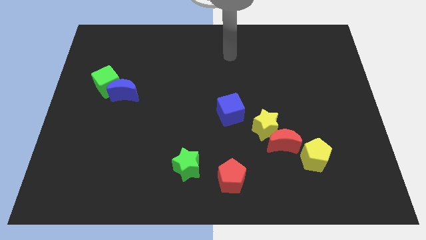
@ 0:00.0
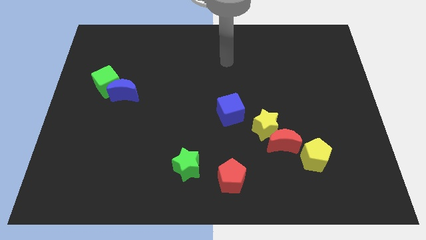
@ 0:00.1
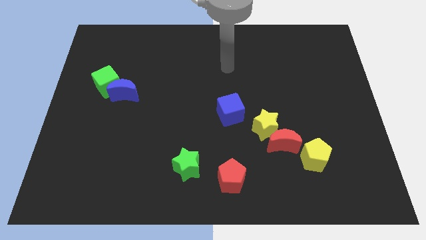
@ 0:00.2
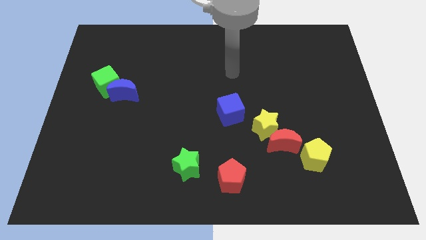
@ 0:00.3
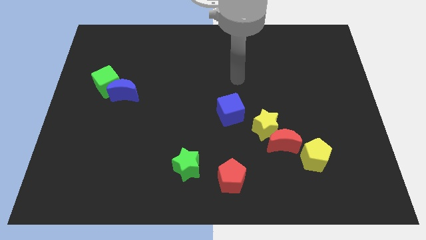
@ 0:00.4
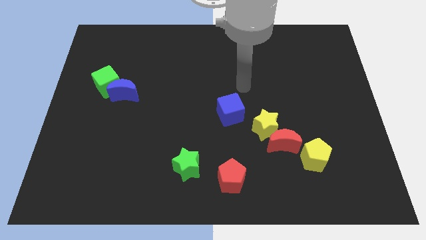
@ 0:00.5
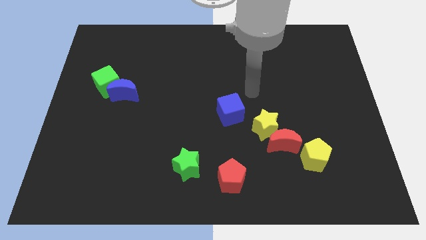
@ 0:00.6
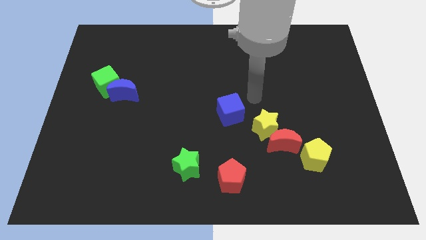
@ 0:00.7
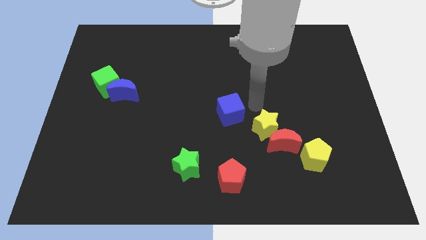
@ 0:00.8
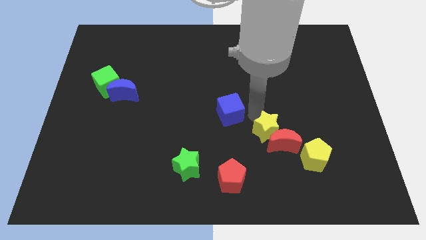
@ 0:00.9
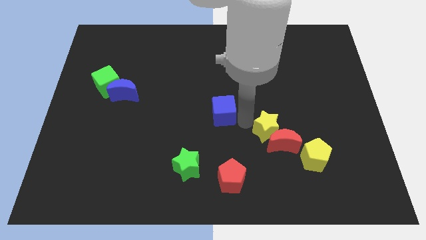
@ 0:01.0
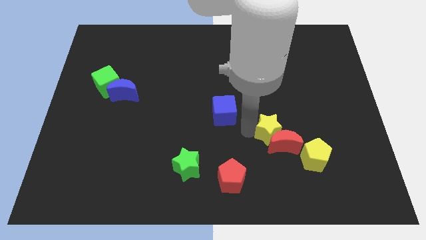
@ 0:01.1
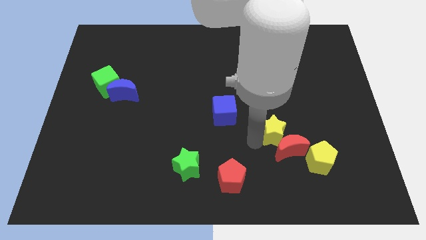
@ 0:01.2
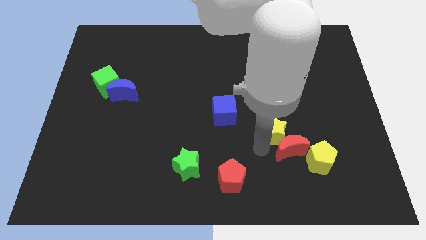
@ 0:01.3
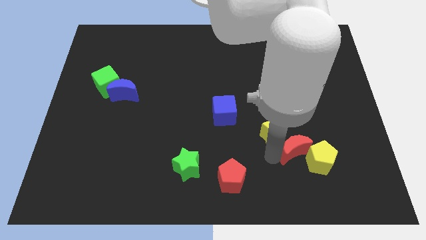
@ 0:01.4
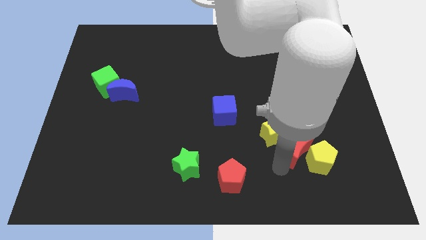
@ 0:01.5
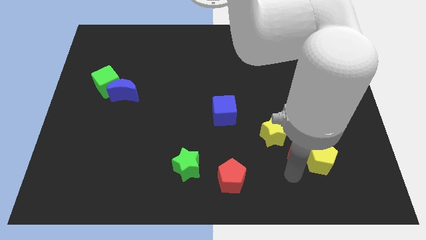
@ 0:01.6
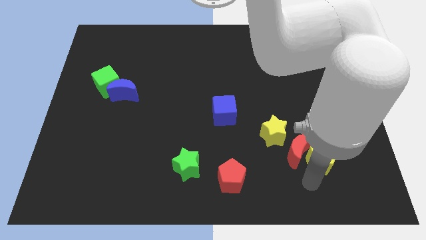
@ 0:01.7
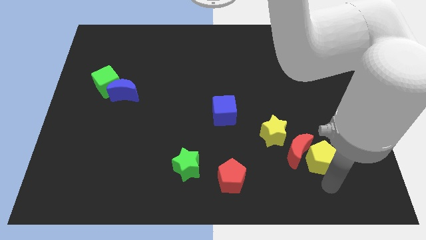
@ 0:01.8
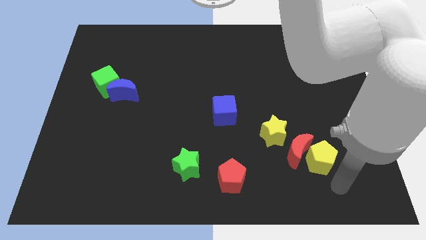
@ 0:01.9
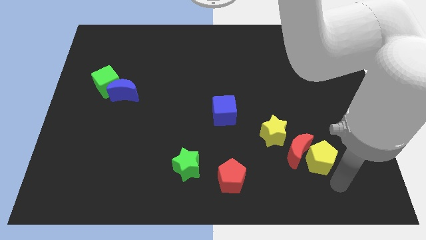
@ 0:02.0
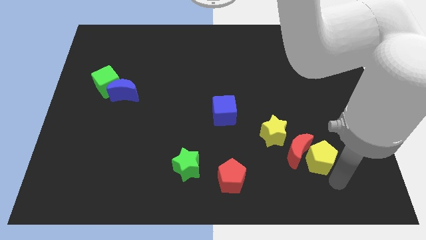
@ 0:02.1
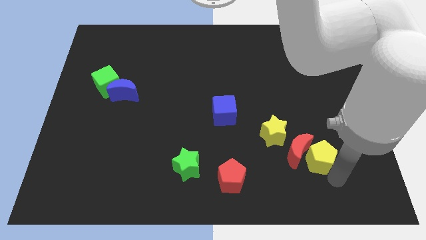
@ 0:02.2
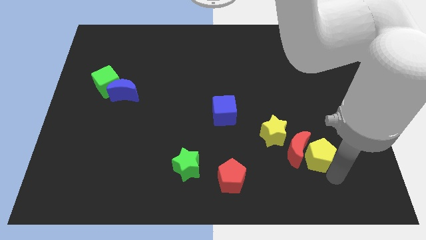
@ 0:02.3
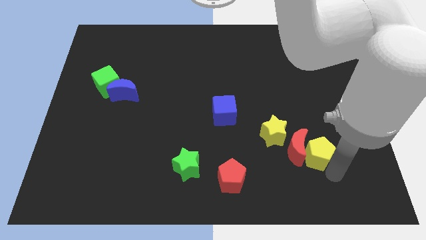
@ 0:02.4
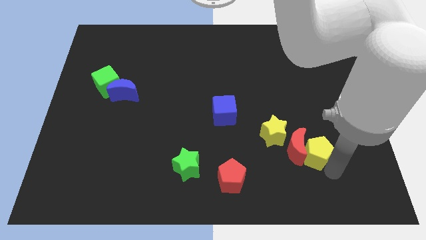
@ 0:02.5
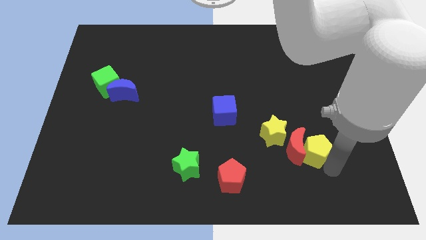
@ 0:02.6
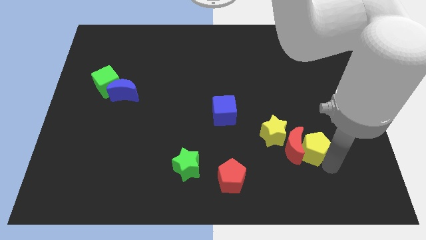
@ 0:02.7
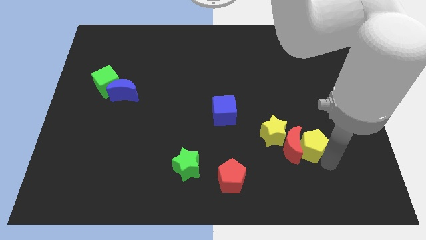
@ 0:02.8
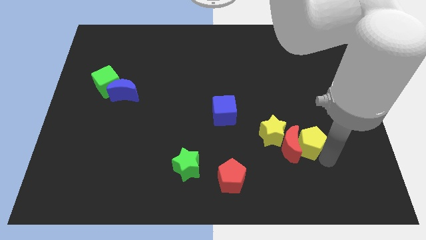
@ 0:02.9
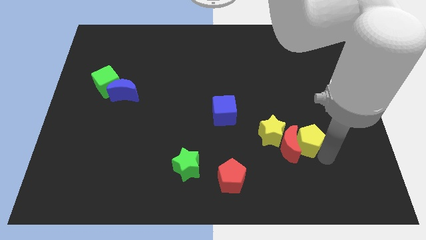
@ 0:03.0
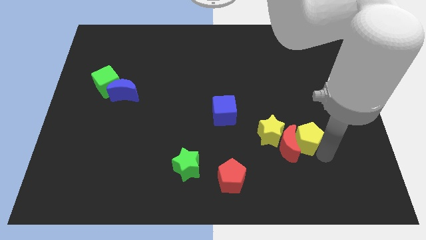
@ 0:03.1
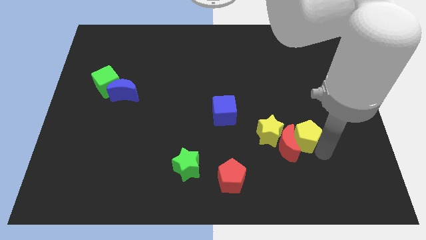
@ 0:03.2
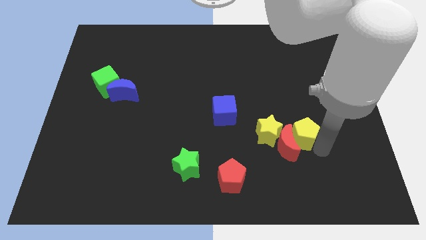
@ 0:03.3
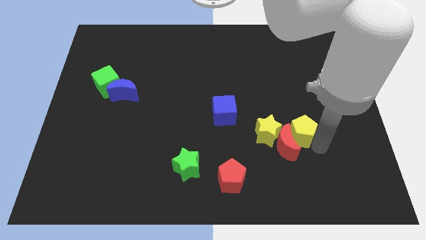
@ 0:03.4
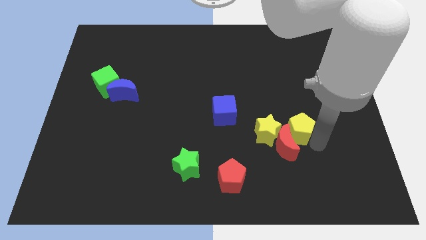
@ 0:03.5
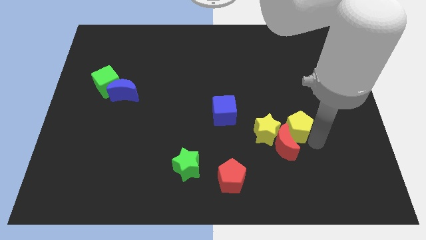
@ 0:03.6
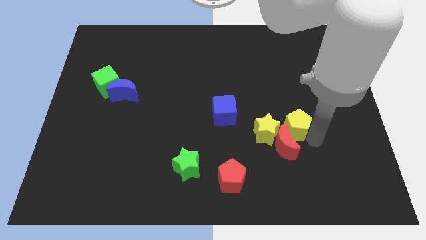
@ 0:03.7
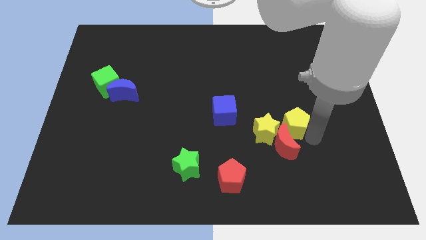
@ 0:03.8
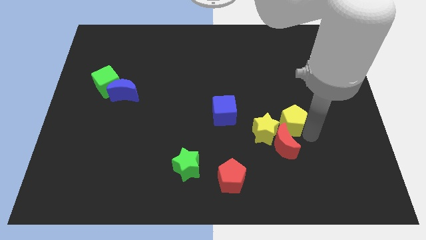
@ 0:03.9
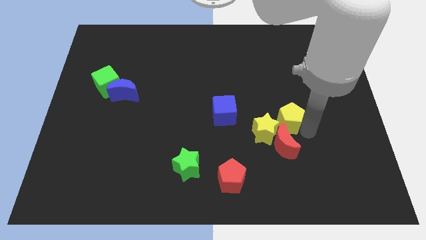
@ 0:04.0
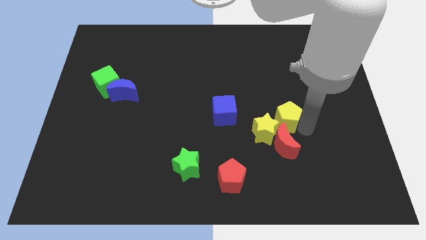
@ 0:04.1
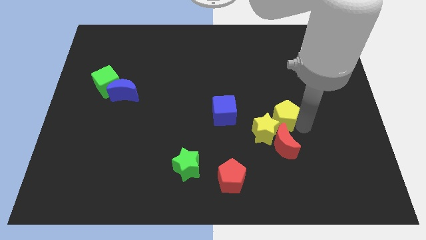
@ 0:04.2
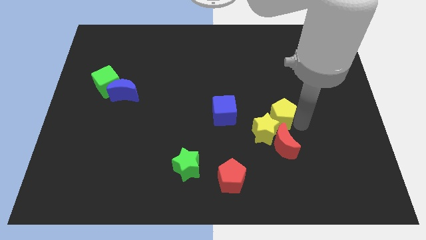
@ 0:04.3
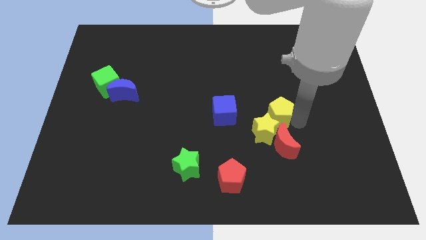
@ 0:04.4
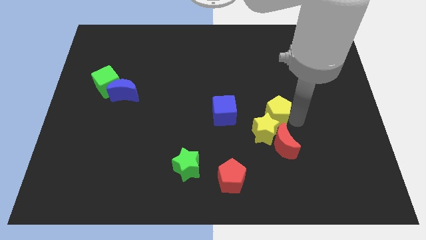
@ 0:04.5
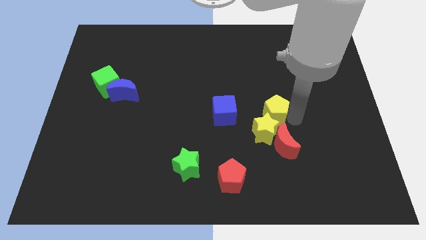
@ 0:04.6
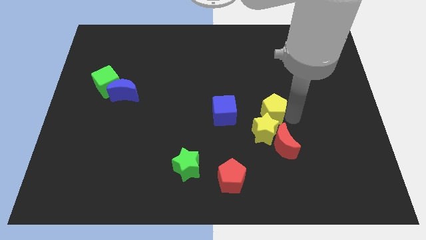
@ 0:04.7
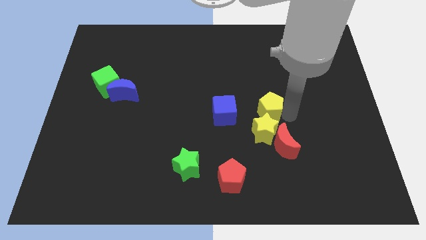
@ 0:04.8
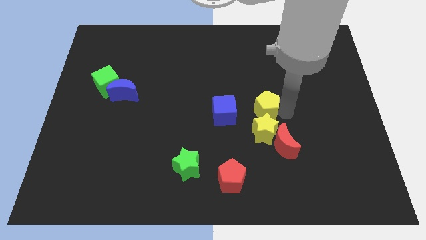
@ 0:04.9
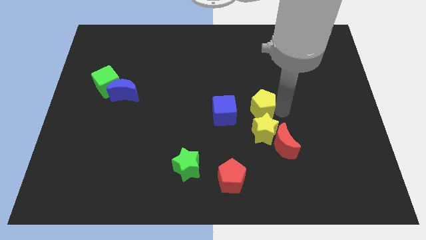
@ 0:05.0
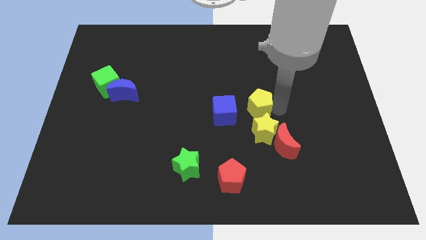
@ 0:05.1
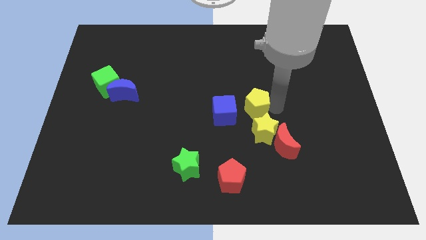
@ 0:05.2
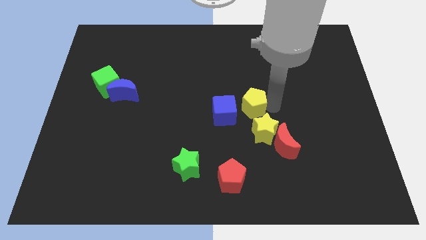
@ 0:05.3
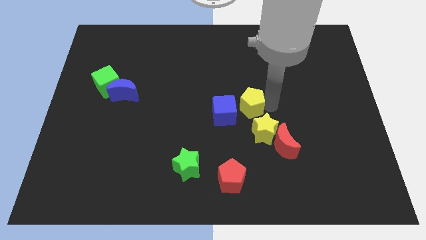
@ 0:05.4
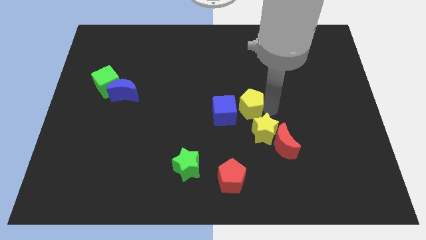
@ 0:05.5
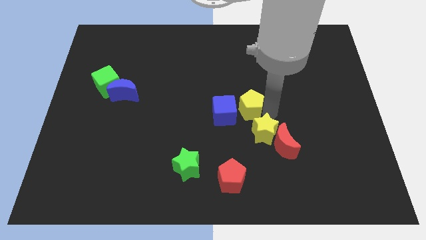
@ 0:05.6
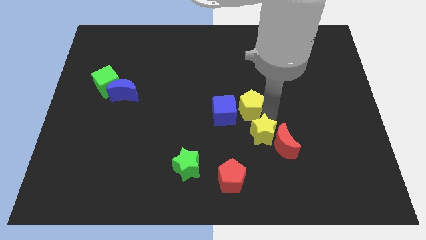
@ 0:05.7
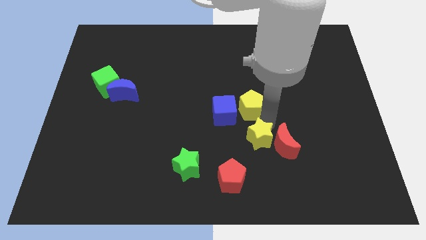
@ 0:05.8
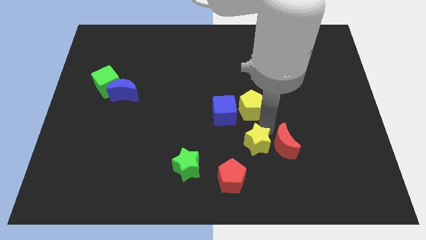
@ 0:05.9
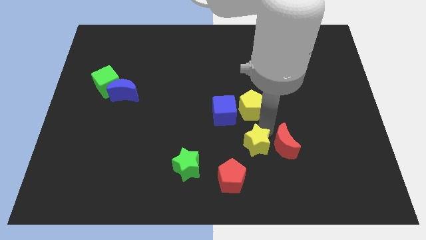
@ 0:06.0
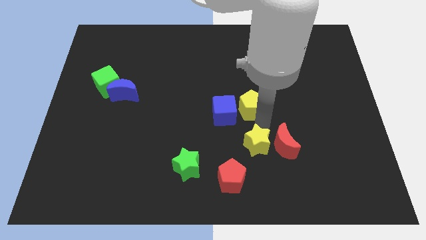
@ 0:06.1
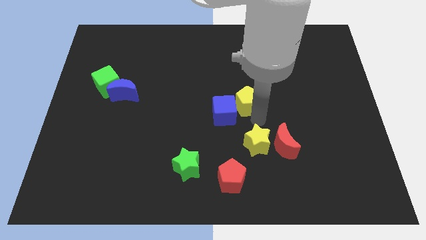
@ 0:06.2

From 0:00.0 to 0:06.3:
move the yellow pentagon diagonally upwards and left

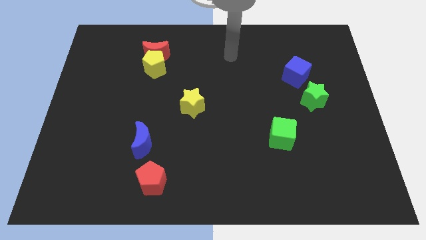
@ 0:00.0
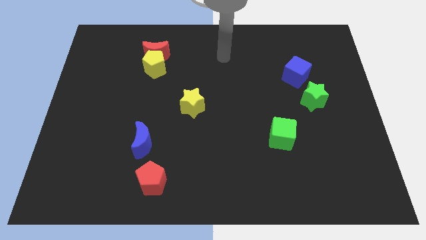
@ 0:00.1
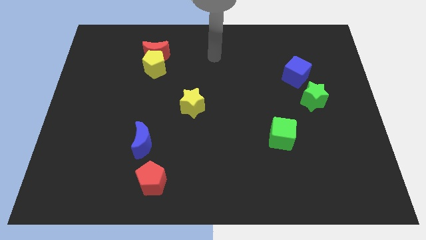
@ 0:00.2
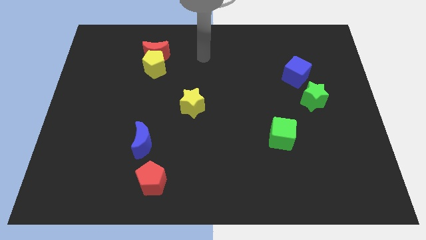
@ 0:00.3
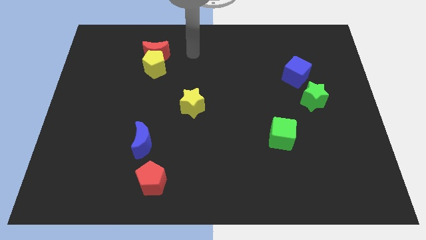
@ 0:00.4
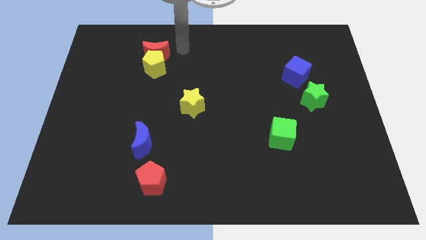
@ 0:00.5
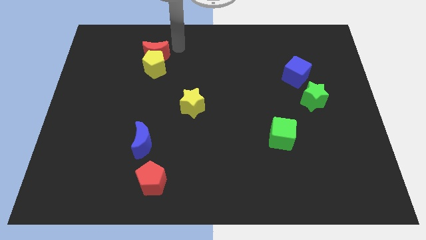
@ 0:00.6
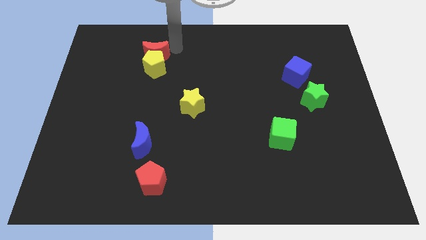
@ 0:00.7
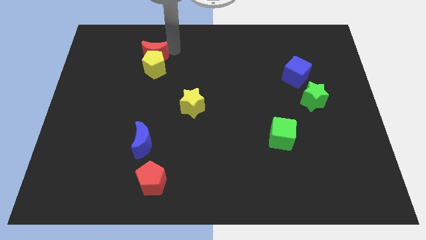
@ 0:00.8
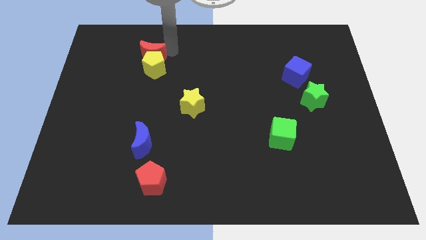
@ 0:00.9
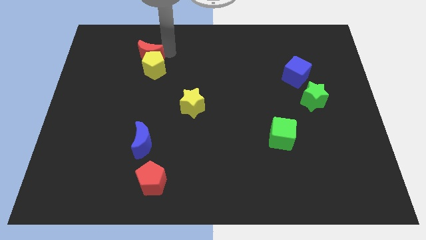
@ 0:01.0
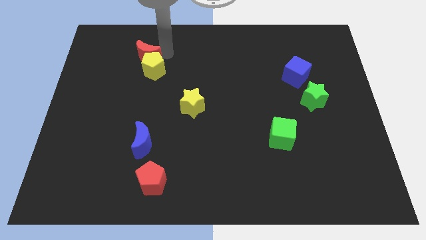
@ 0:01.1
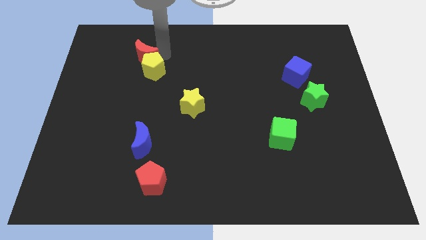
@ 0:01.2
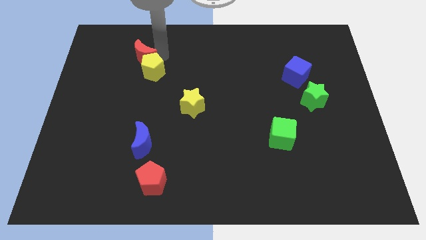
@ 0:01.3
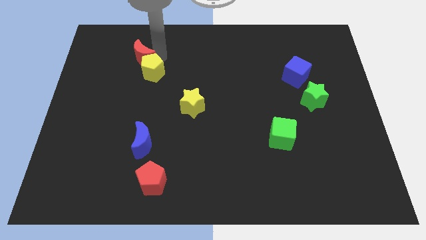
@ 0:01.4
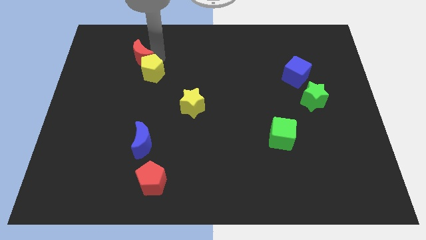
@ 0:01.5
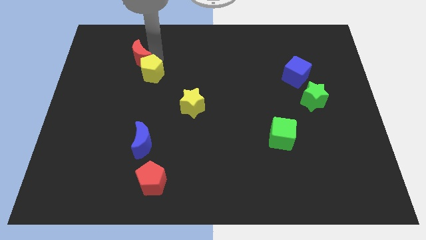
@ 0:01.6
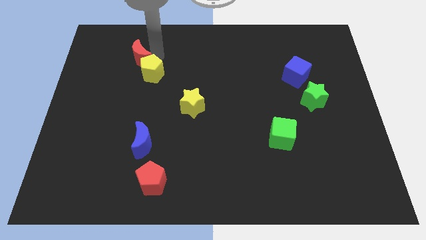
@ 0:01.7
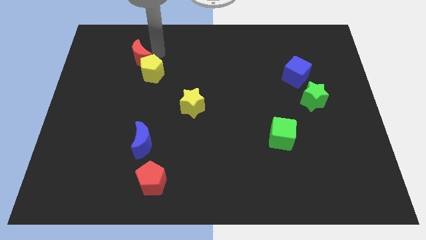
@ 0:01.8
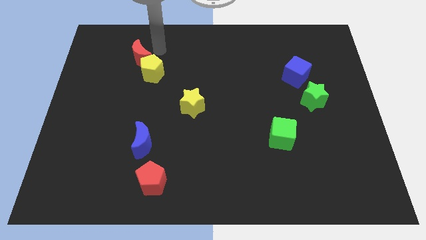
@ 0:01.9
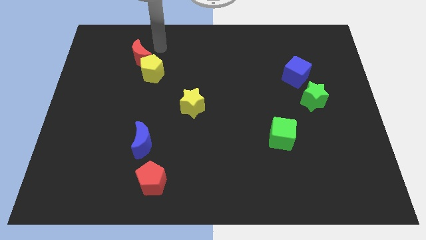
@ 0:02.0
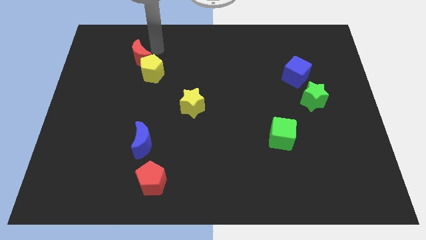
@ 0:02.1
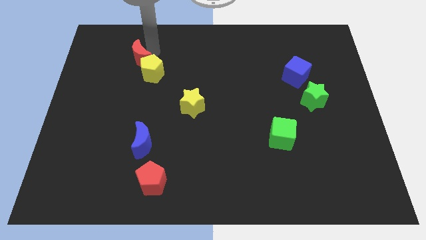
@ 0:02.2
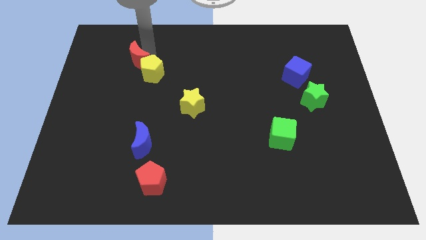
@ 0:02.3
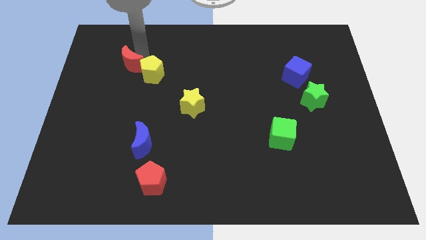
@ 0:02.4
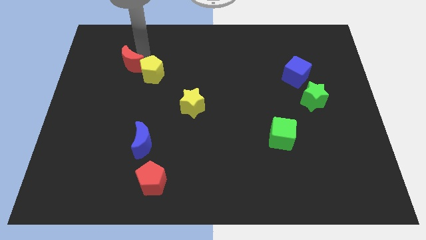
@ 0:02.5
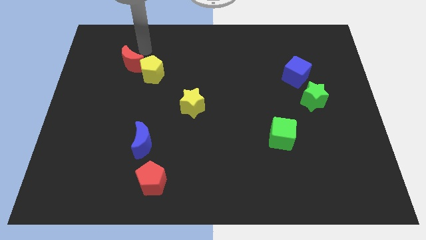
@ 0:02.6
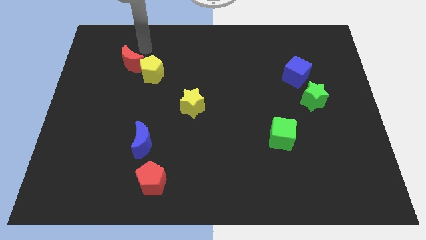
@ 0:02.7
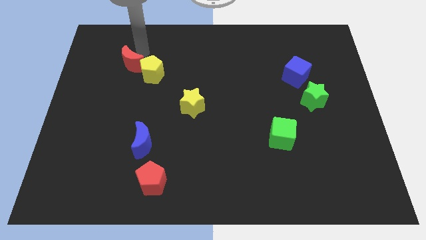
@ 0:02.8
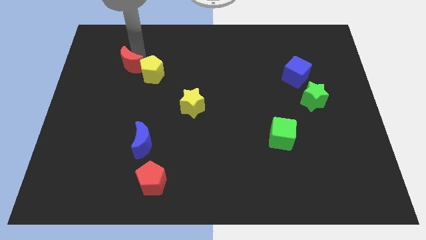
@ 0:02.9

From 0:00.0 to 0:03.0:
slightly push the red moon down and then left
